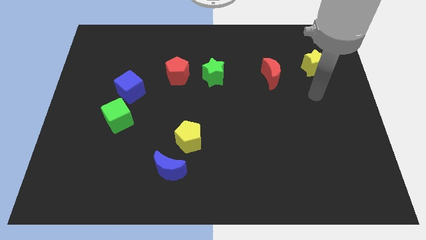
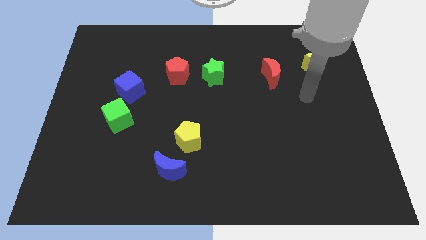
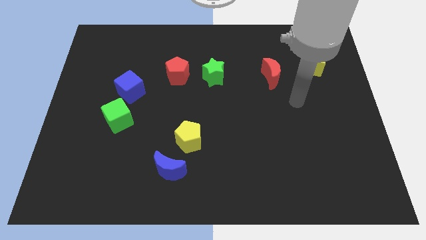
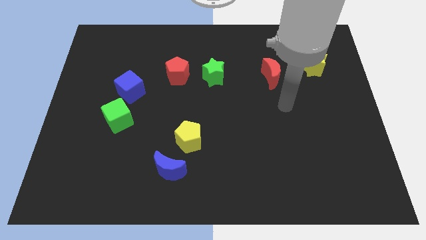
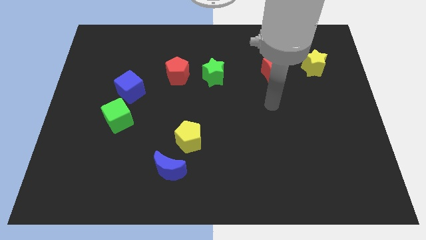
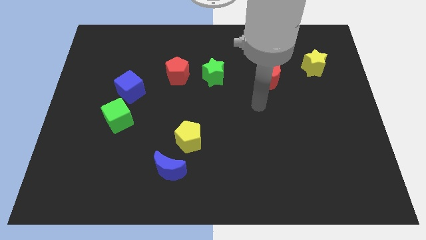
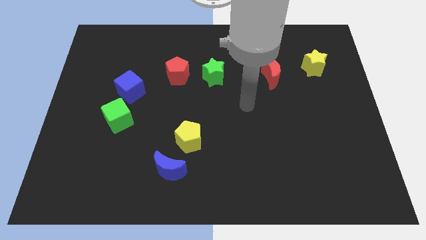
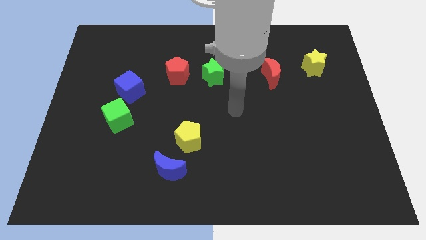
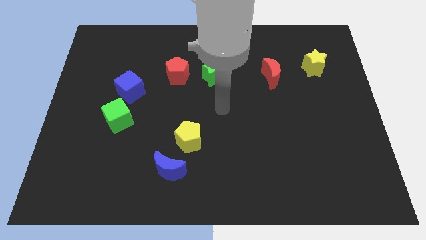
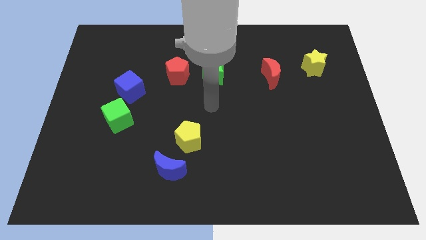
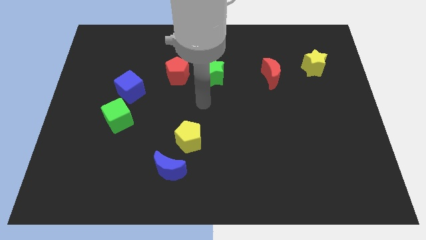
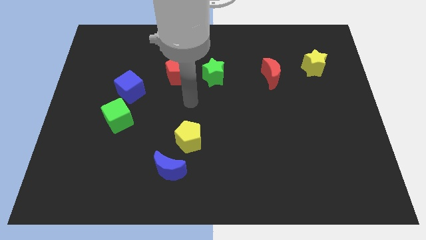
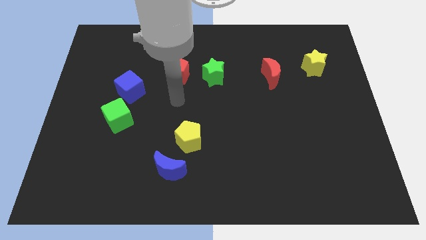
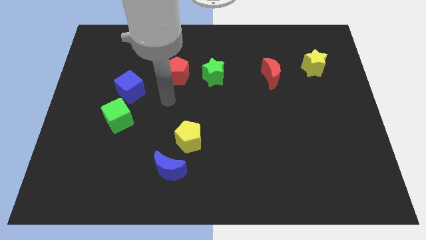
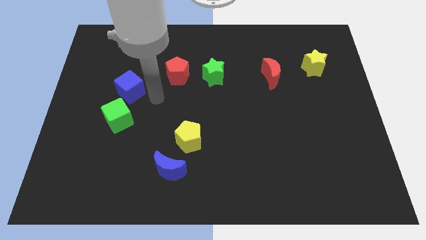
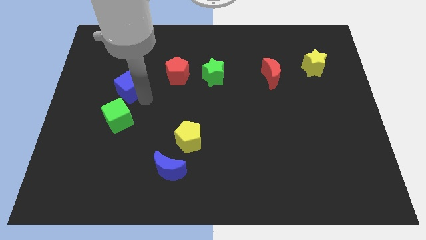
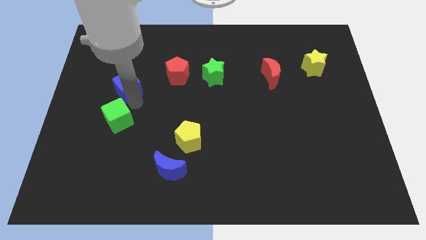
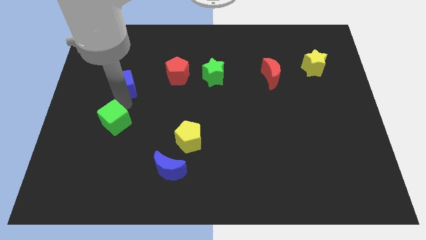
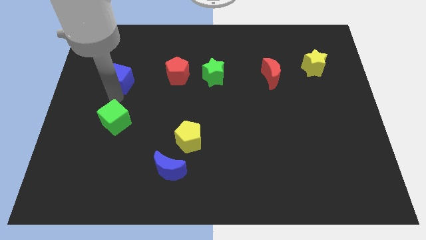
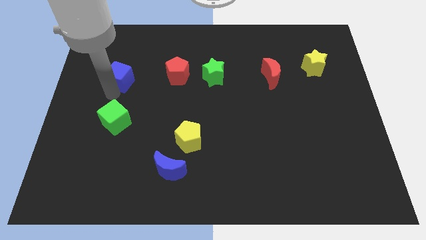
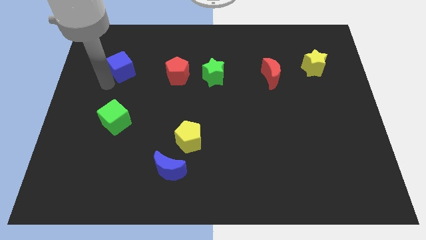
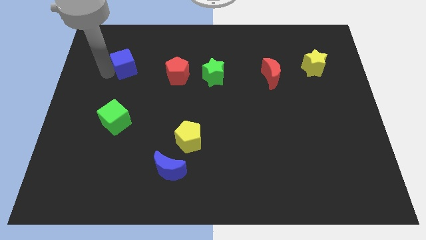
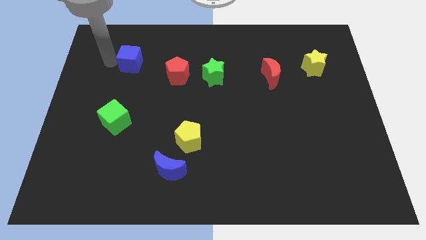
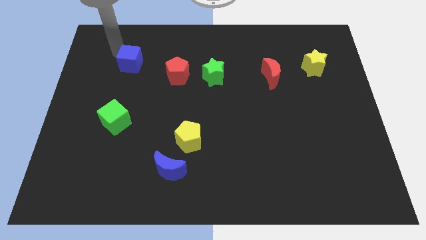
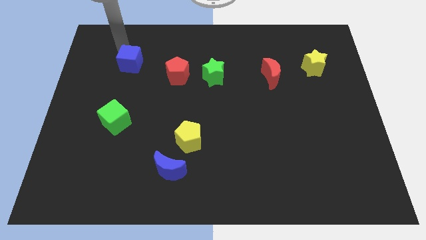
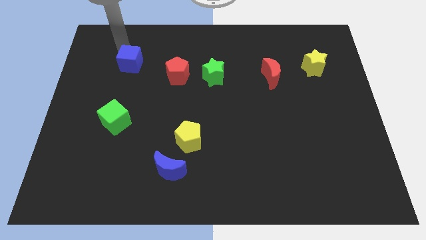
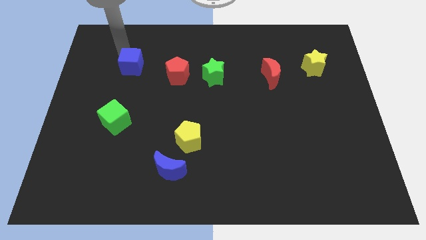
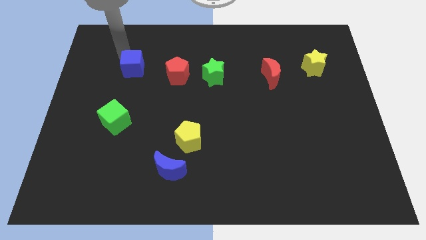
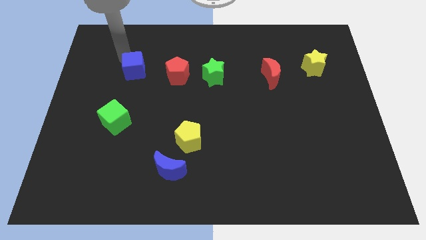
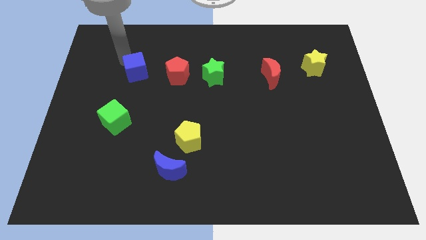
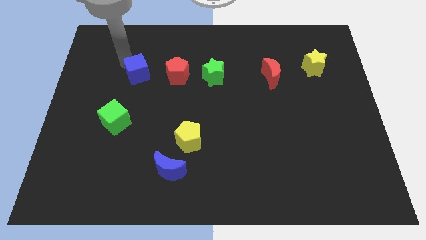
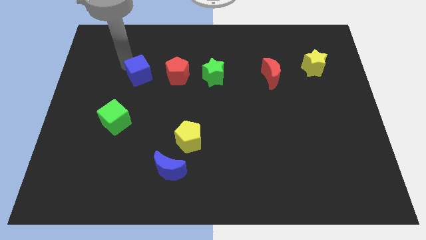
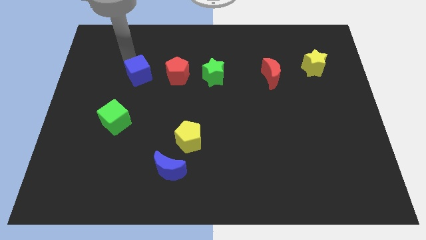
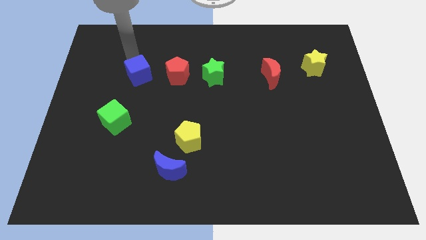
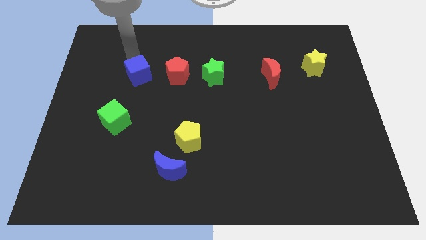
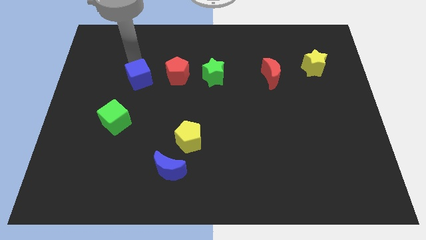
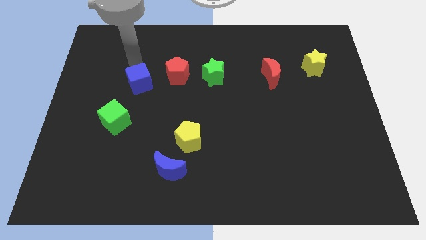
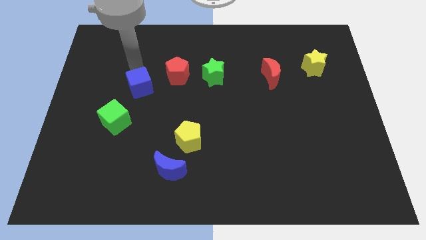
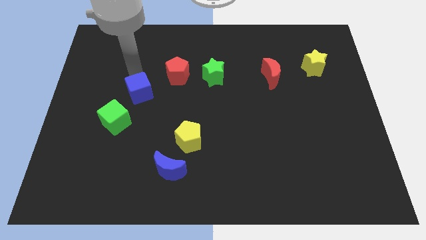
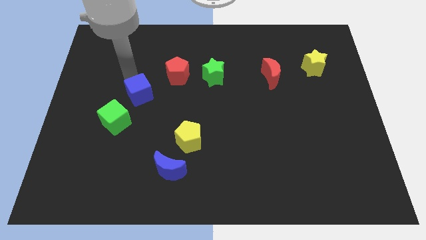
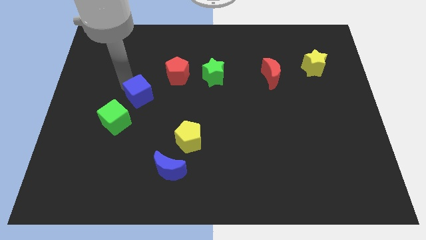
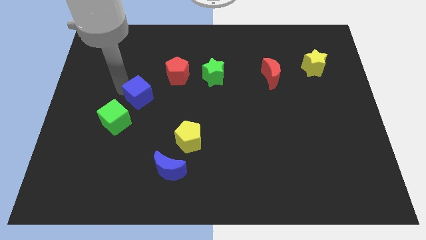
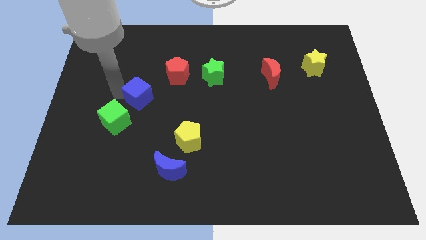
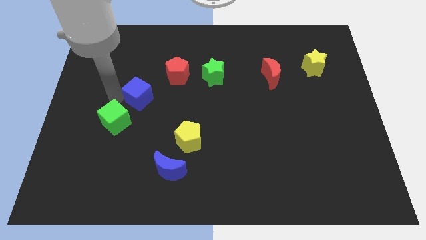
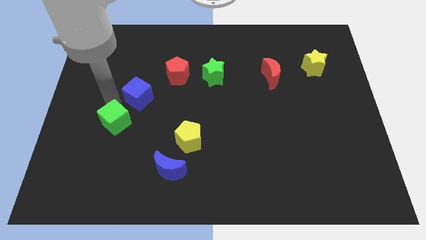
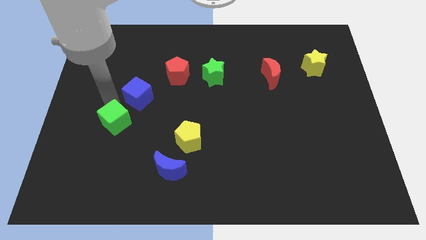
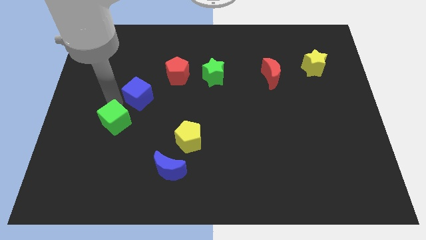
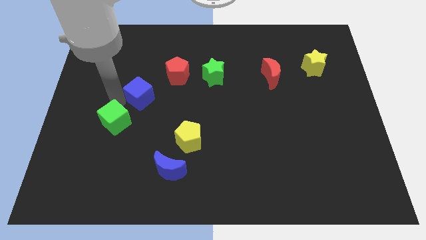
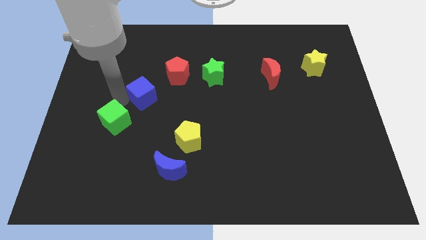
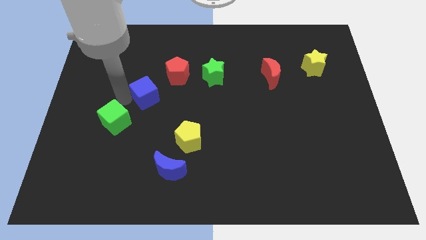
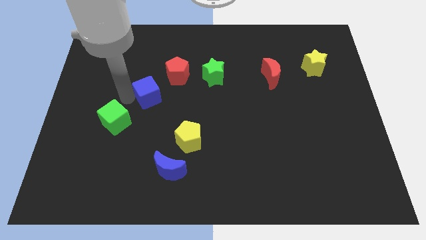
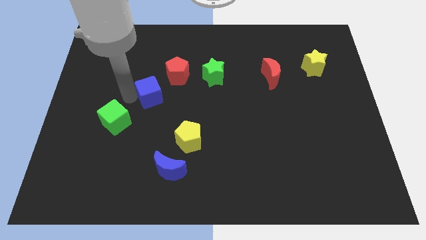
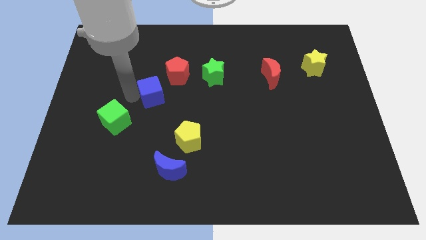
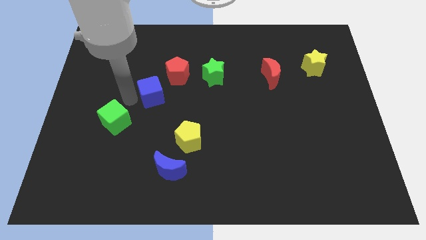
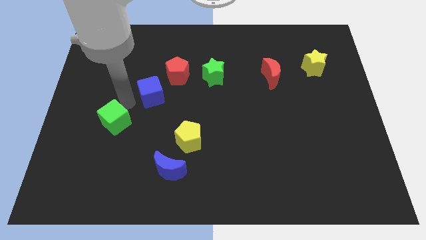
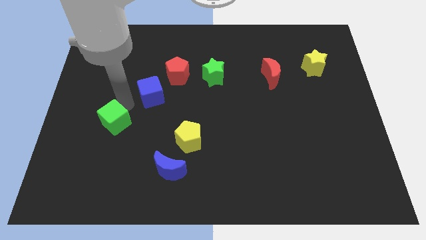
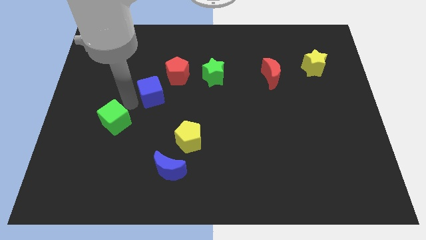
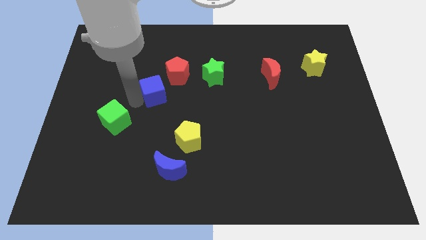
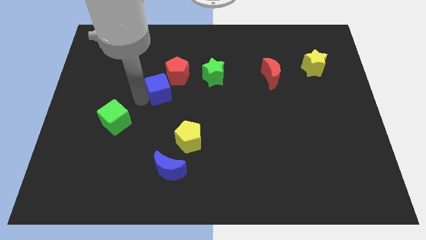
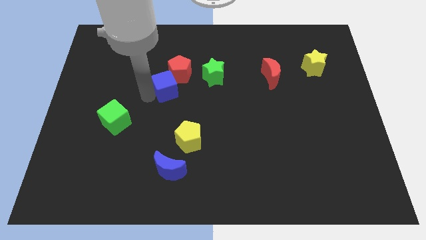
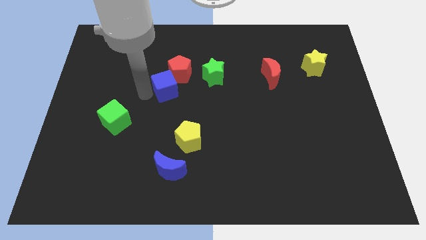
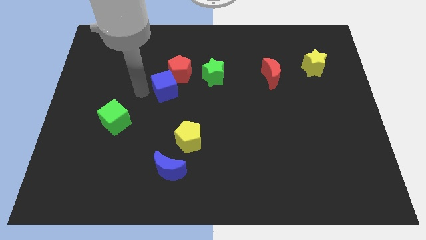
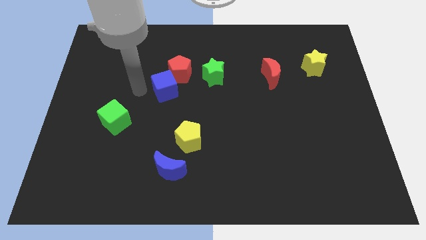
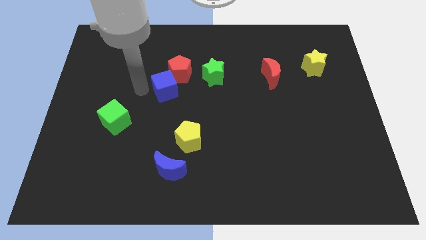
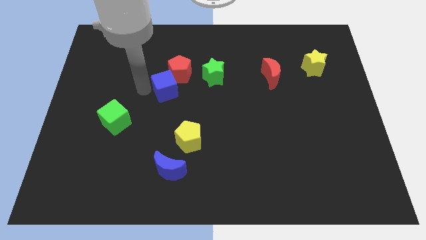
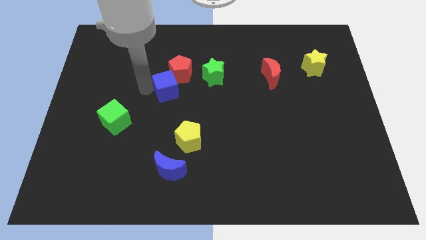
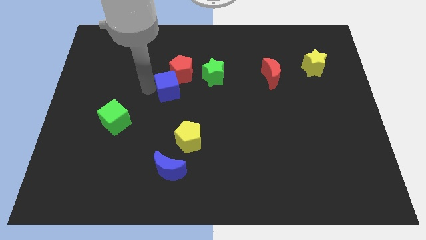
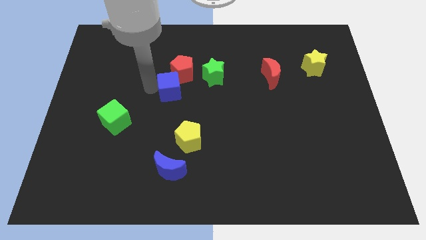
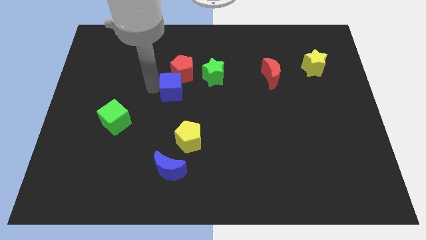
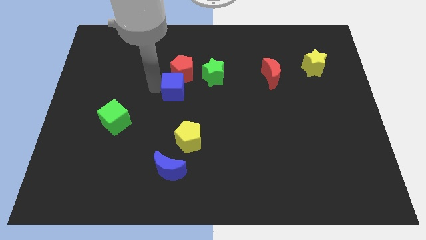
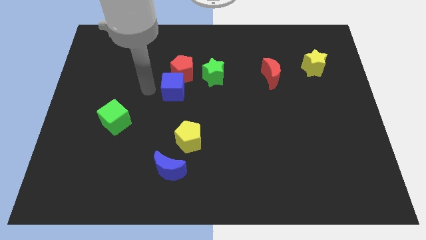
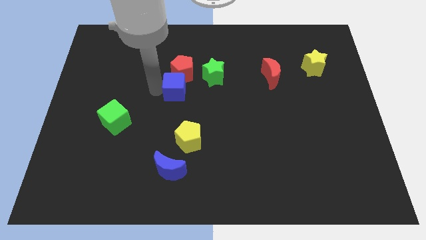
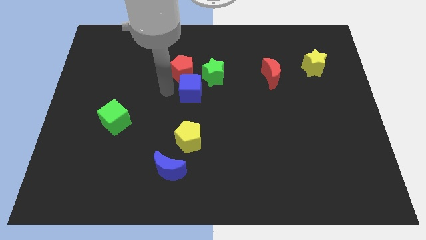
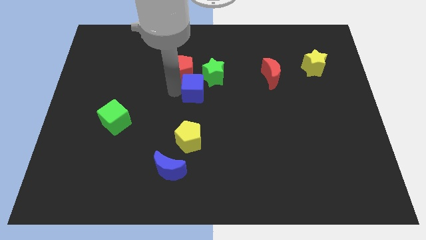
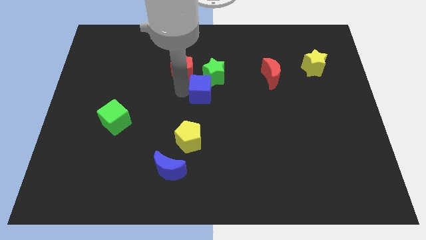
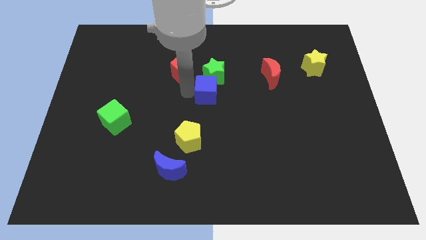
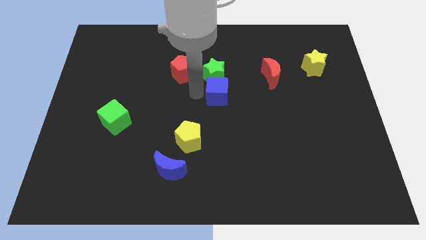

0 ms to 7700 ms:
slide the blue cube to the right
